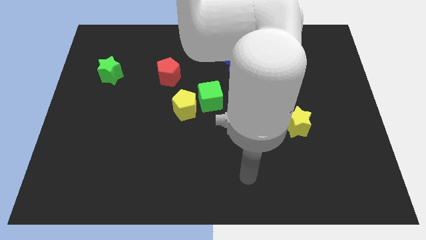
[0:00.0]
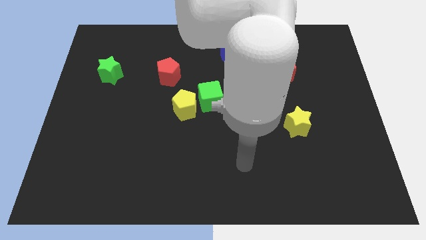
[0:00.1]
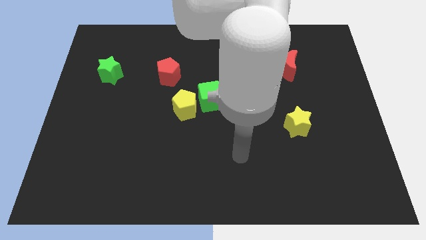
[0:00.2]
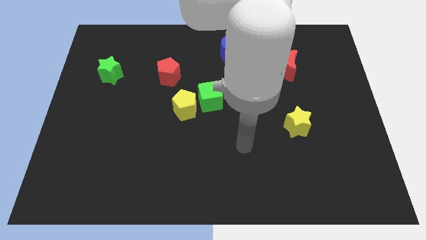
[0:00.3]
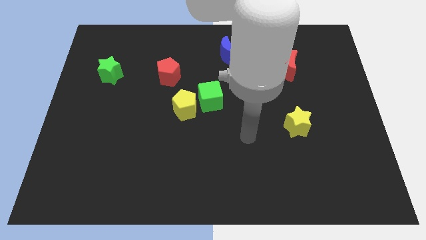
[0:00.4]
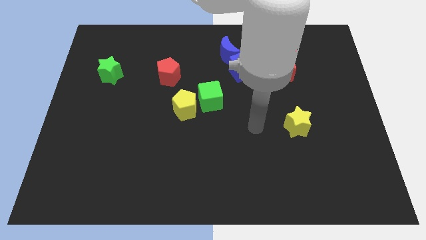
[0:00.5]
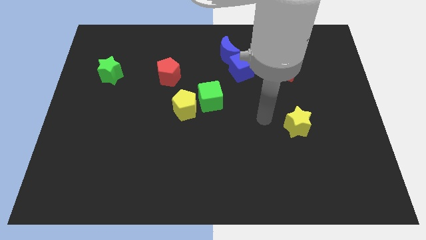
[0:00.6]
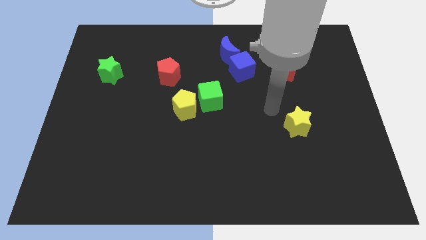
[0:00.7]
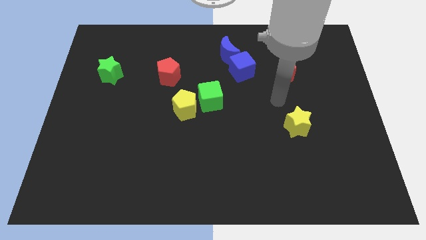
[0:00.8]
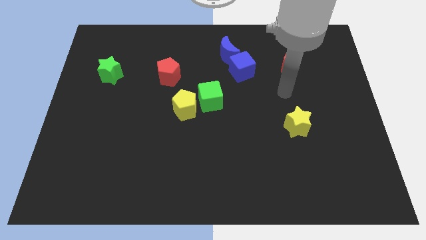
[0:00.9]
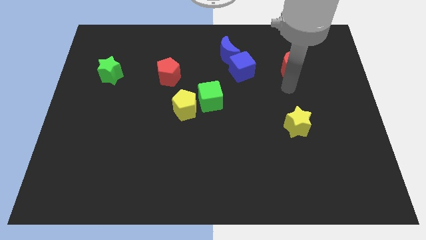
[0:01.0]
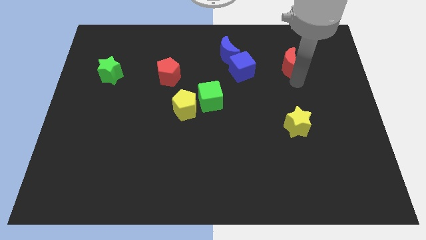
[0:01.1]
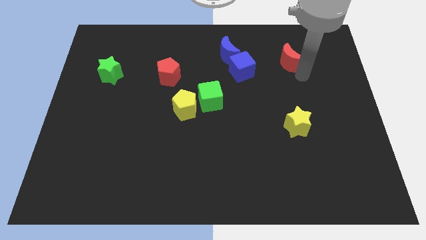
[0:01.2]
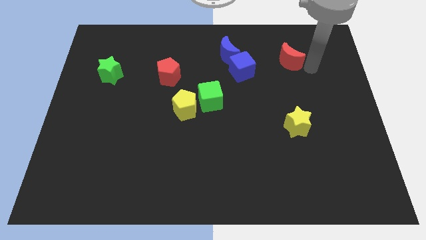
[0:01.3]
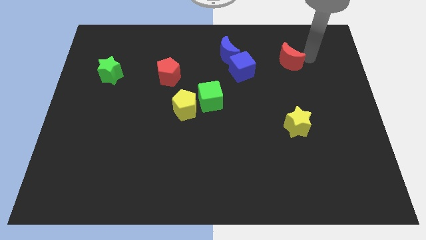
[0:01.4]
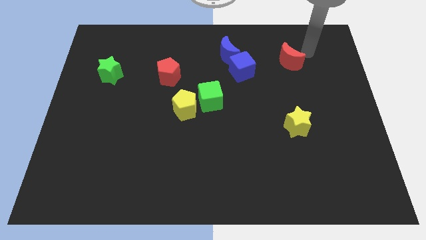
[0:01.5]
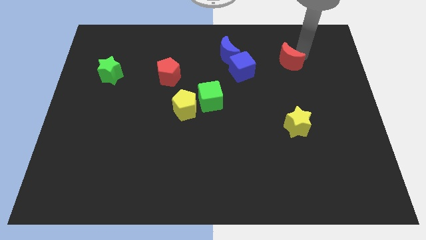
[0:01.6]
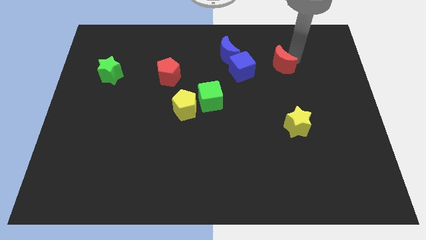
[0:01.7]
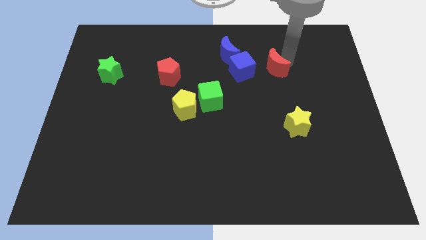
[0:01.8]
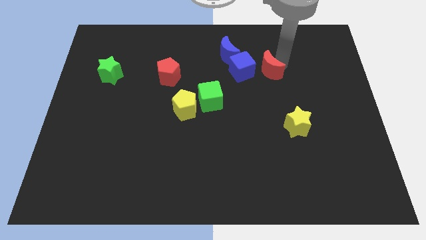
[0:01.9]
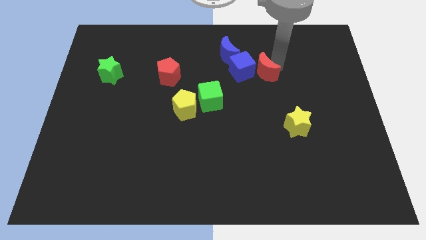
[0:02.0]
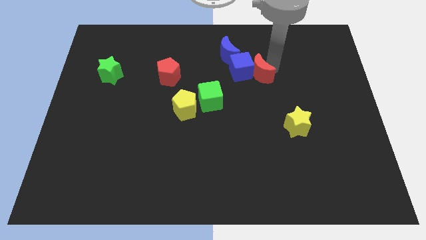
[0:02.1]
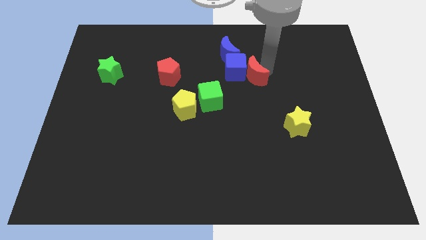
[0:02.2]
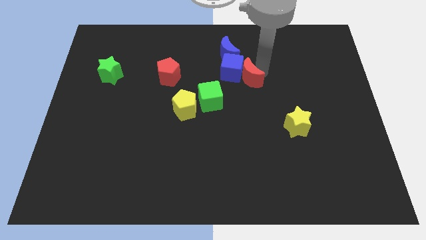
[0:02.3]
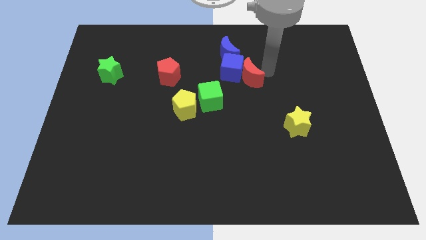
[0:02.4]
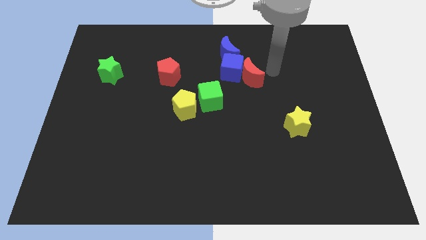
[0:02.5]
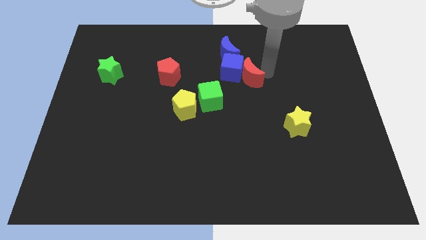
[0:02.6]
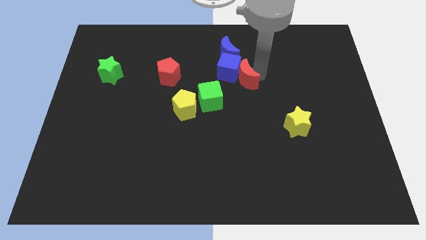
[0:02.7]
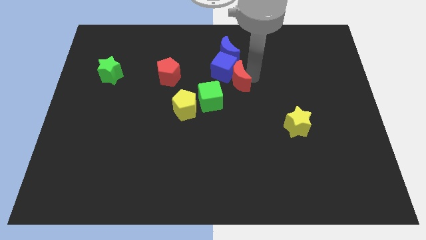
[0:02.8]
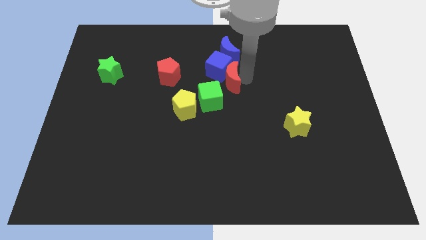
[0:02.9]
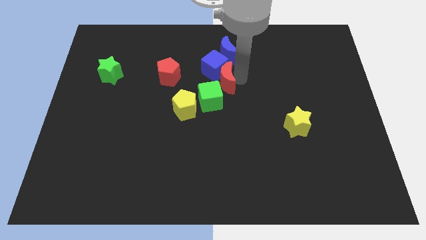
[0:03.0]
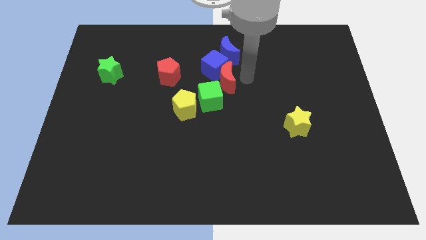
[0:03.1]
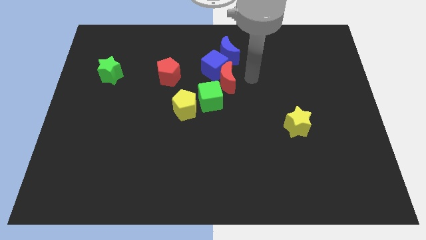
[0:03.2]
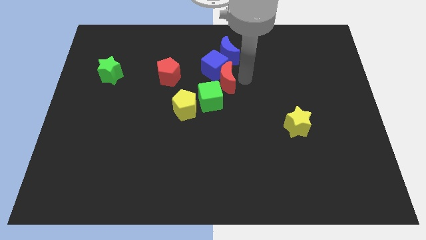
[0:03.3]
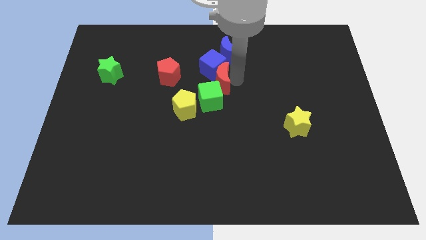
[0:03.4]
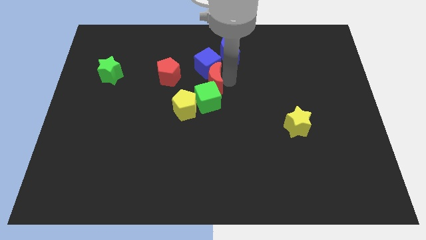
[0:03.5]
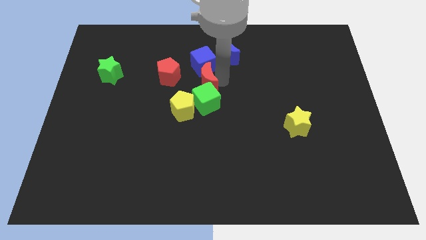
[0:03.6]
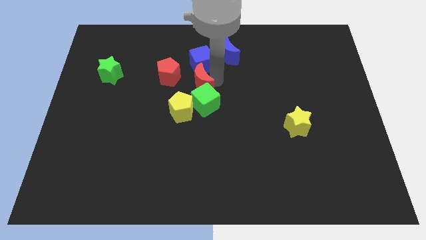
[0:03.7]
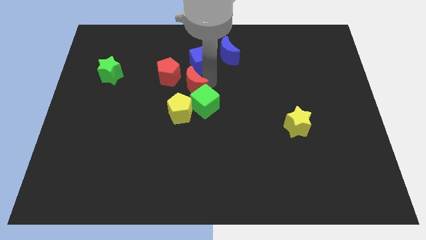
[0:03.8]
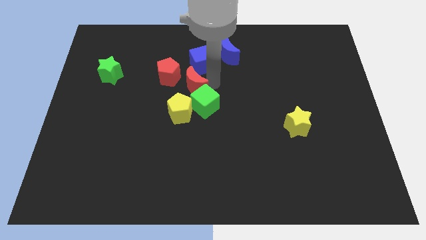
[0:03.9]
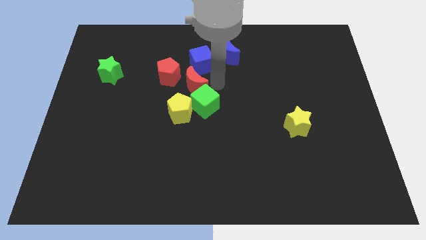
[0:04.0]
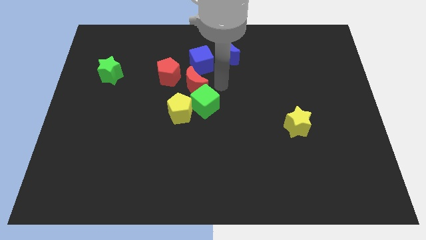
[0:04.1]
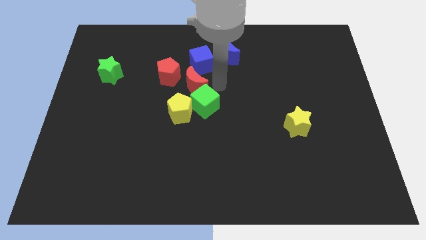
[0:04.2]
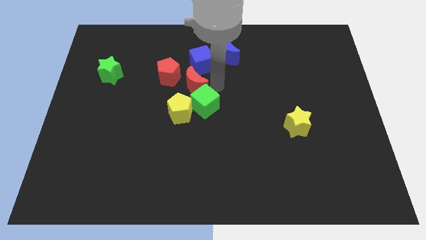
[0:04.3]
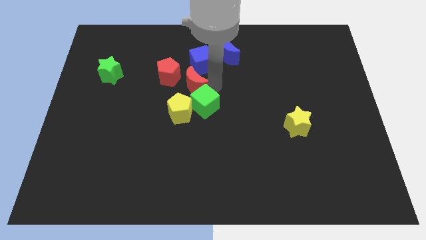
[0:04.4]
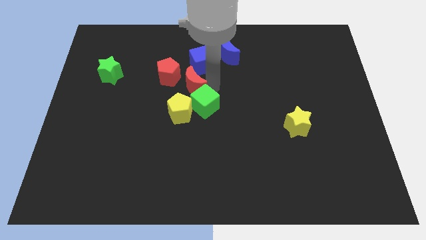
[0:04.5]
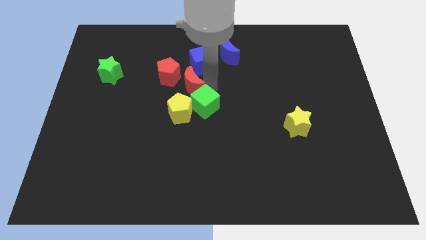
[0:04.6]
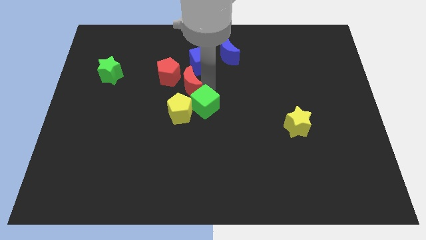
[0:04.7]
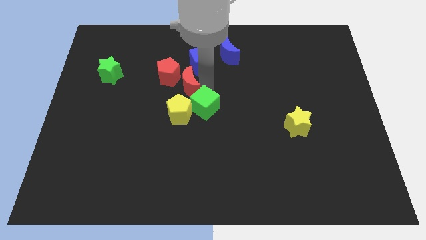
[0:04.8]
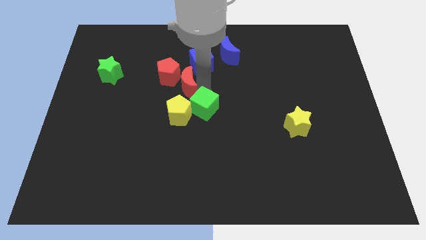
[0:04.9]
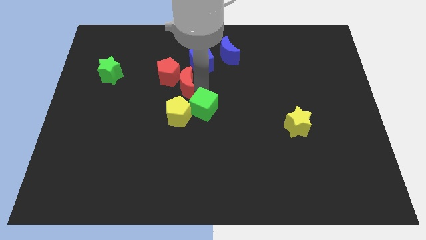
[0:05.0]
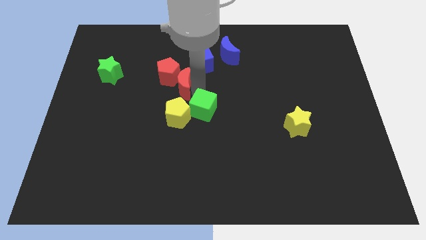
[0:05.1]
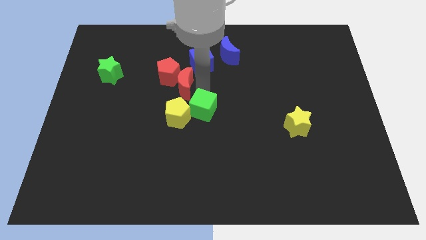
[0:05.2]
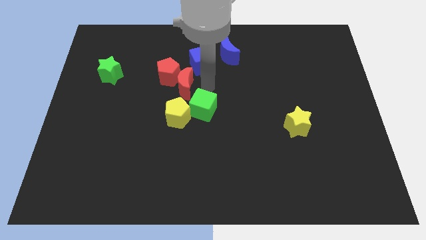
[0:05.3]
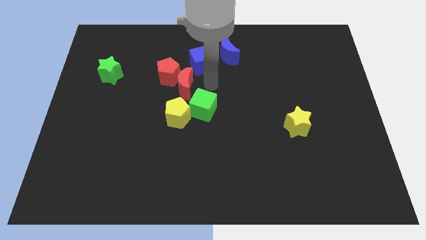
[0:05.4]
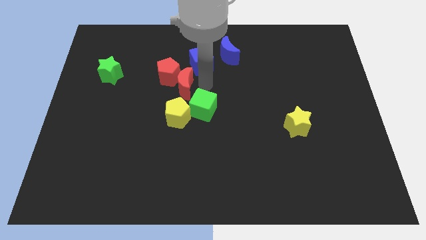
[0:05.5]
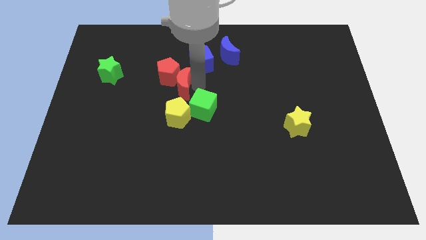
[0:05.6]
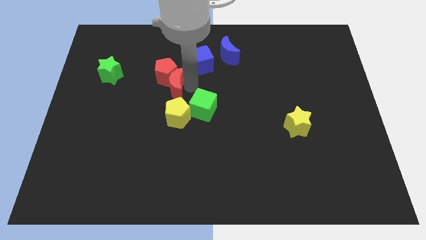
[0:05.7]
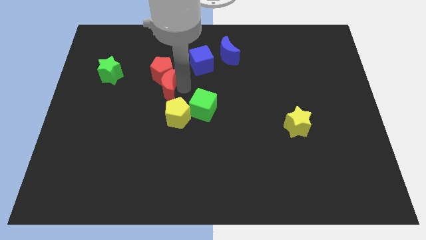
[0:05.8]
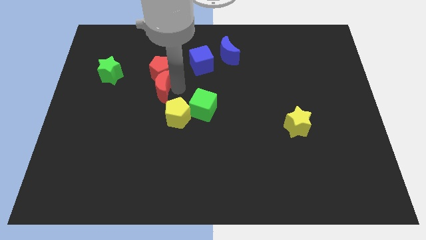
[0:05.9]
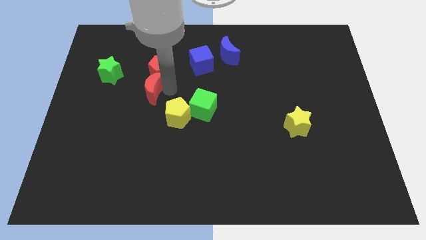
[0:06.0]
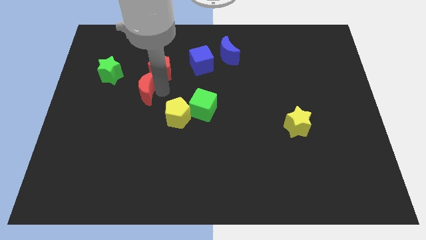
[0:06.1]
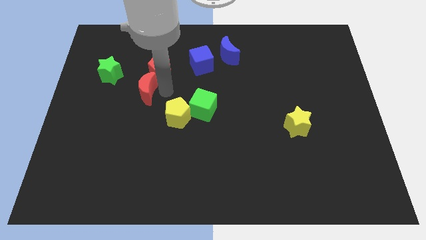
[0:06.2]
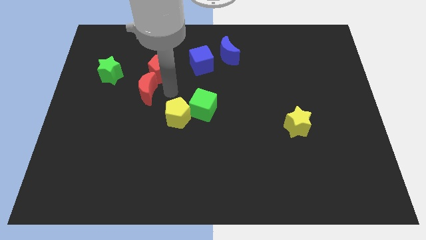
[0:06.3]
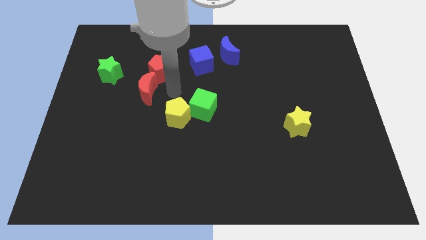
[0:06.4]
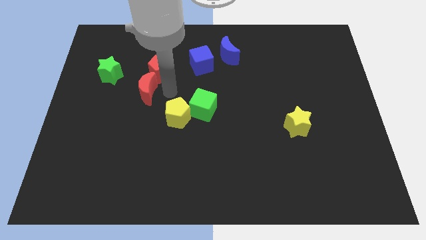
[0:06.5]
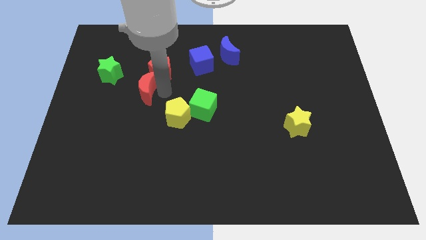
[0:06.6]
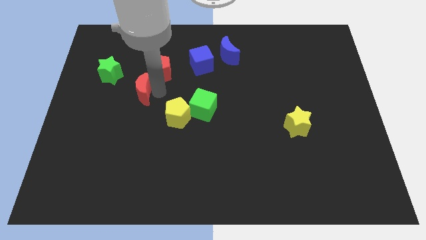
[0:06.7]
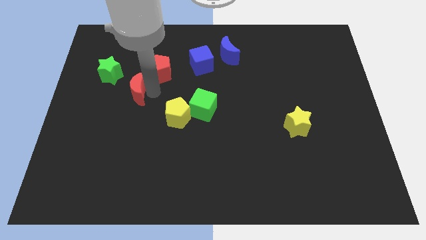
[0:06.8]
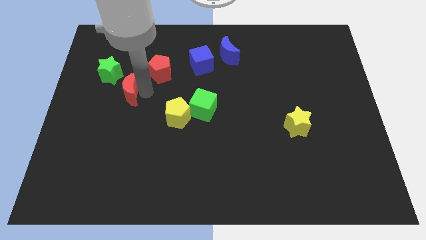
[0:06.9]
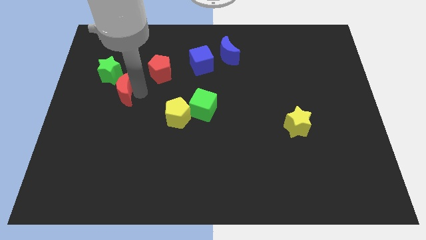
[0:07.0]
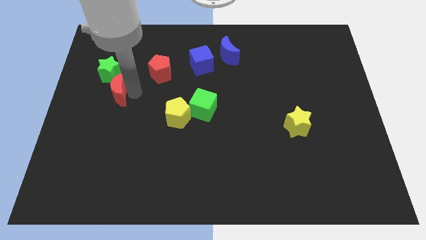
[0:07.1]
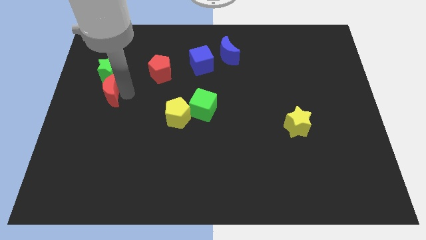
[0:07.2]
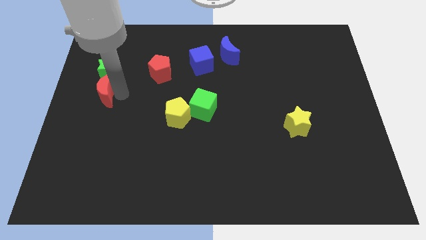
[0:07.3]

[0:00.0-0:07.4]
move the red moon to the center left
